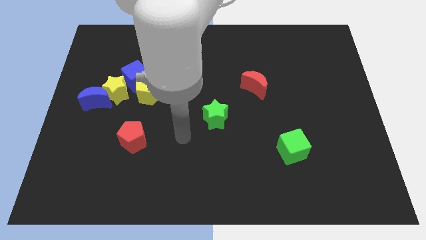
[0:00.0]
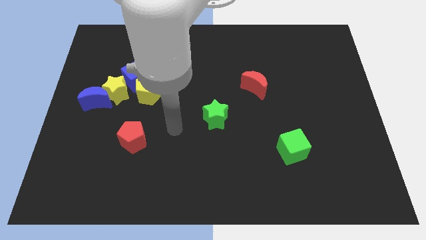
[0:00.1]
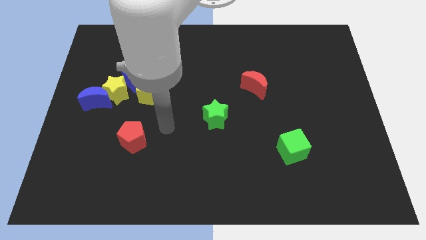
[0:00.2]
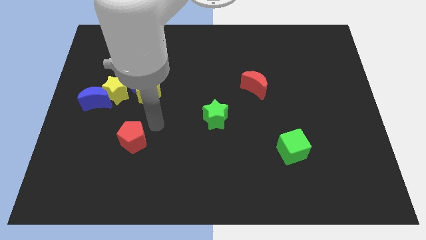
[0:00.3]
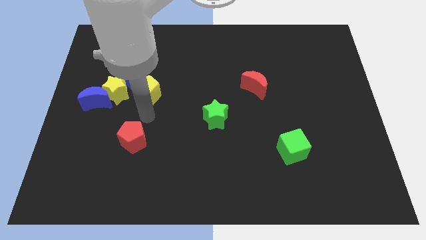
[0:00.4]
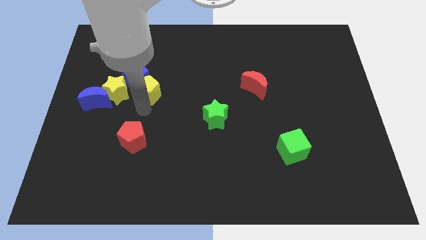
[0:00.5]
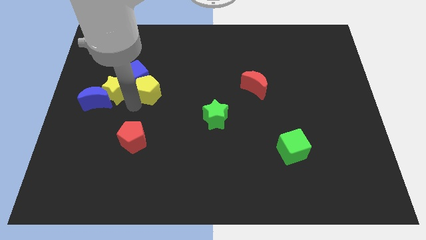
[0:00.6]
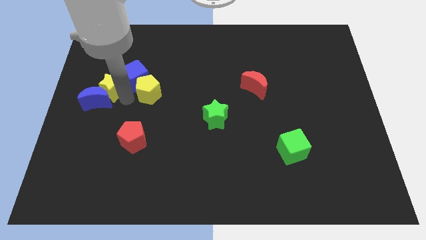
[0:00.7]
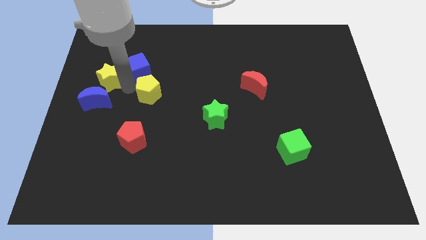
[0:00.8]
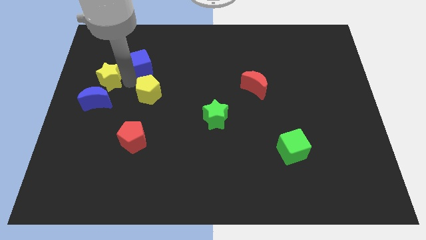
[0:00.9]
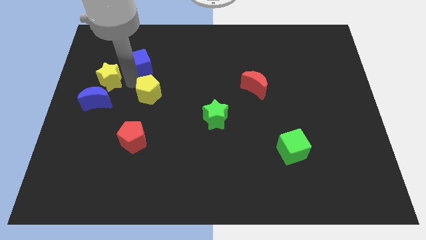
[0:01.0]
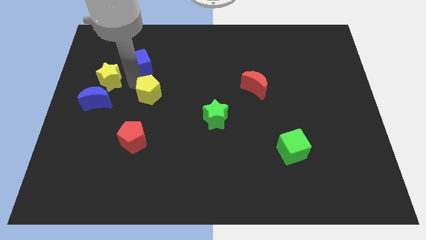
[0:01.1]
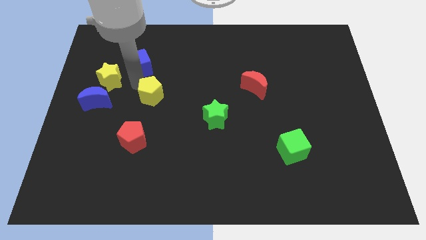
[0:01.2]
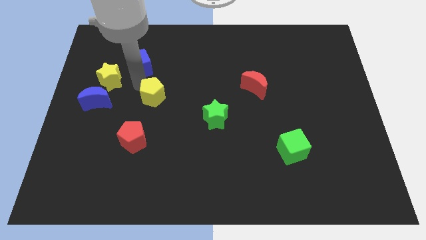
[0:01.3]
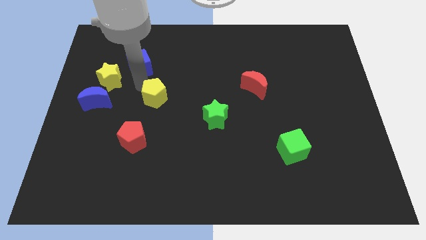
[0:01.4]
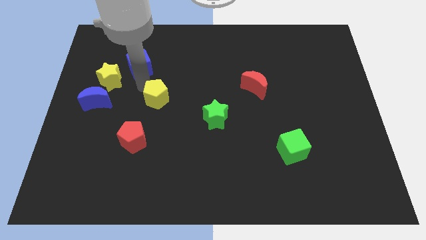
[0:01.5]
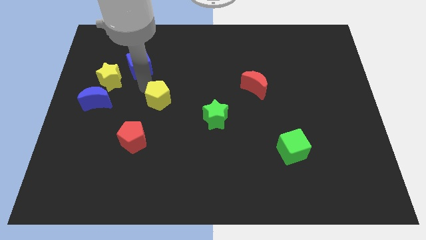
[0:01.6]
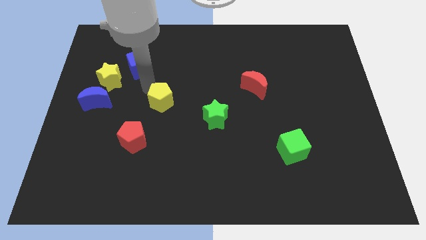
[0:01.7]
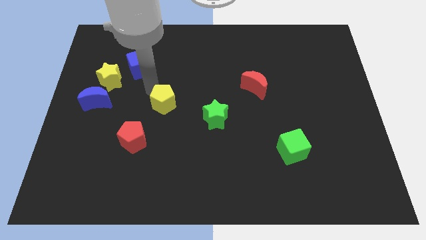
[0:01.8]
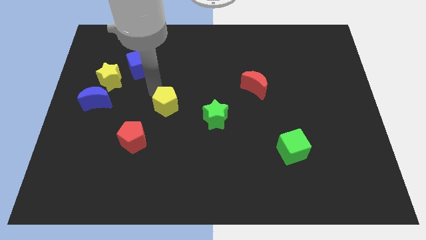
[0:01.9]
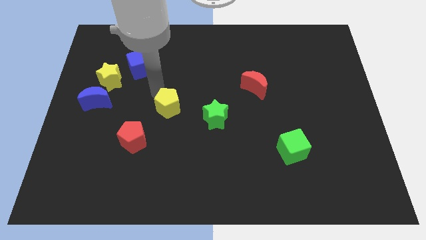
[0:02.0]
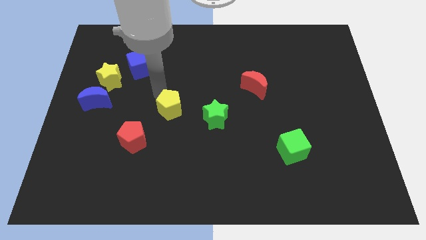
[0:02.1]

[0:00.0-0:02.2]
slightly slide the yellow pentagon downwards and to the right diagonally

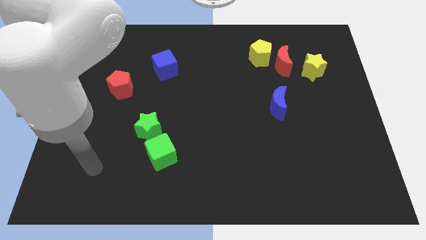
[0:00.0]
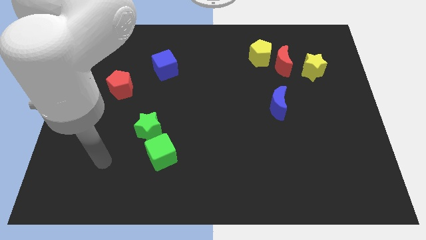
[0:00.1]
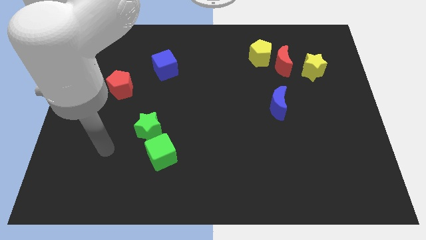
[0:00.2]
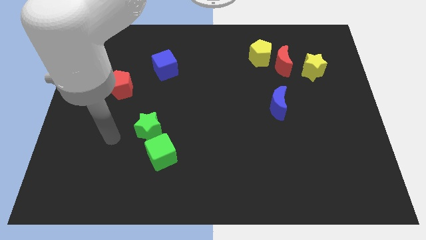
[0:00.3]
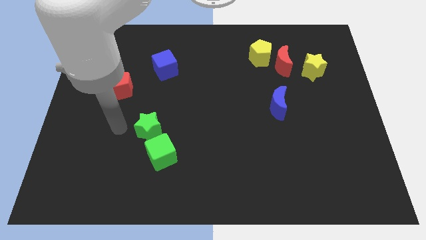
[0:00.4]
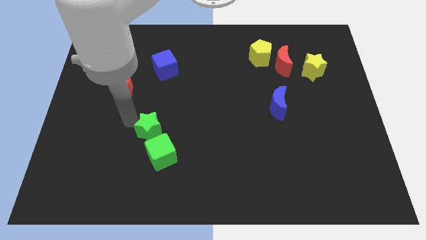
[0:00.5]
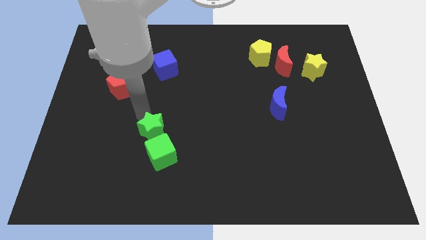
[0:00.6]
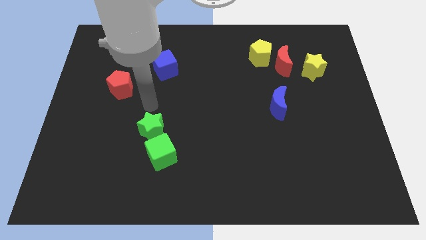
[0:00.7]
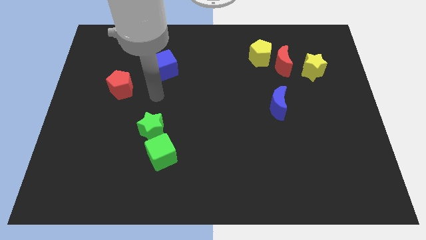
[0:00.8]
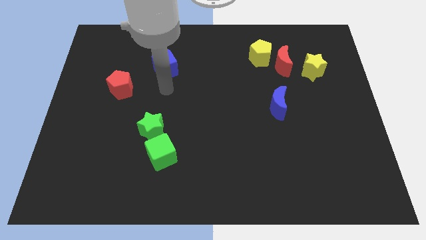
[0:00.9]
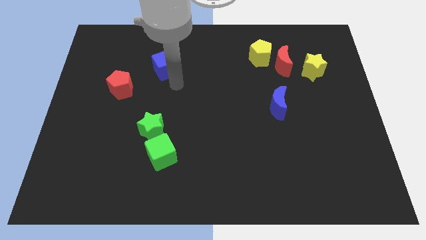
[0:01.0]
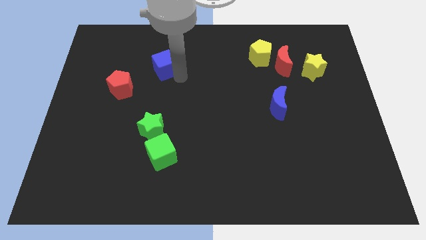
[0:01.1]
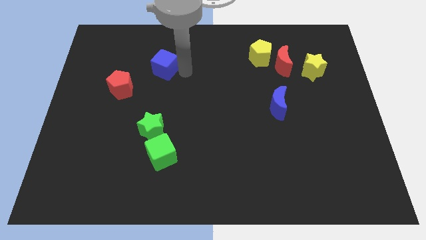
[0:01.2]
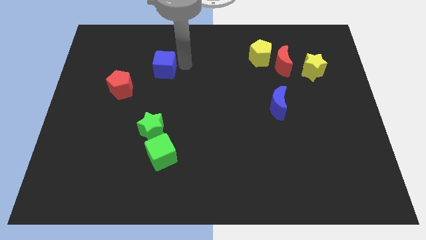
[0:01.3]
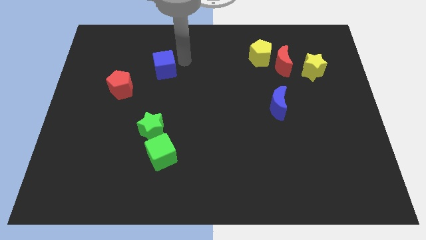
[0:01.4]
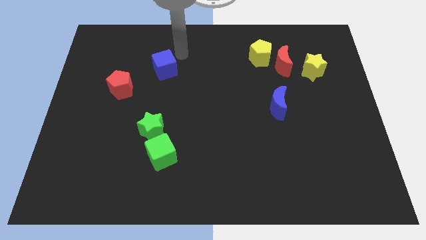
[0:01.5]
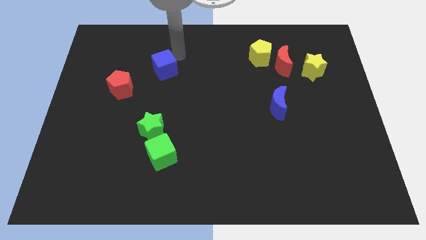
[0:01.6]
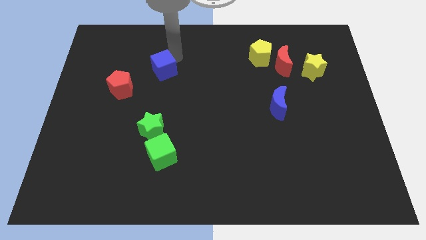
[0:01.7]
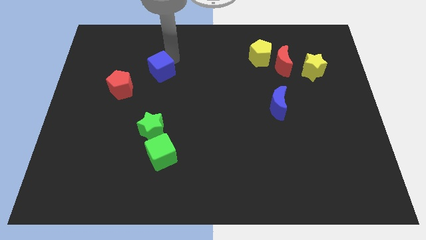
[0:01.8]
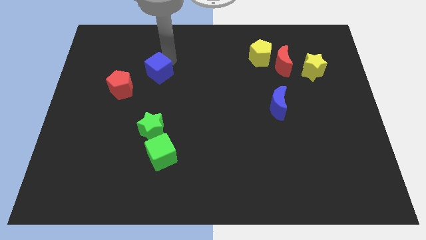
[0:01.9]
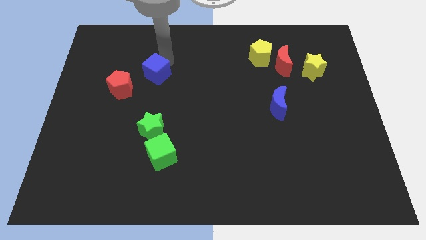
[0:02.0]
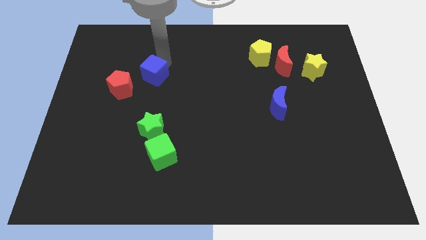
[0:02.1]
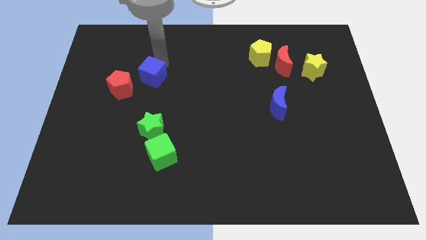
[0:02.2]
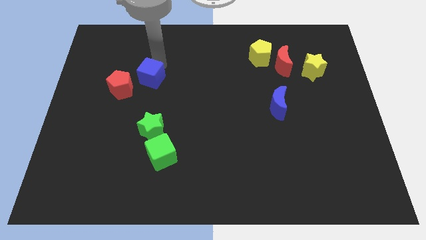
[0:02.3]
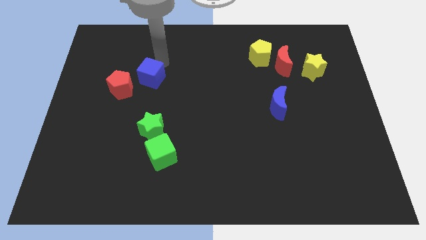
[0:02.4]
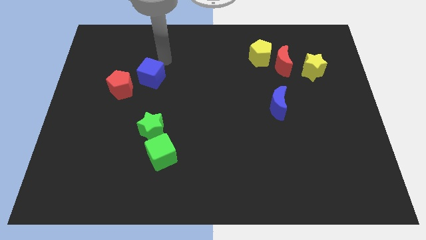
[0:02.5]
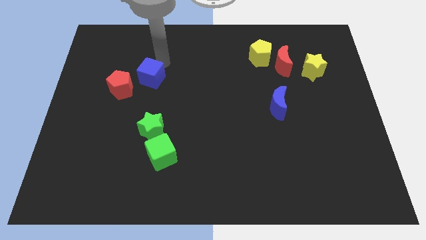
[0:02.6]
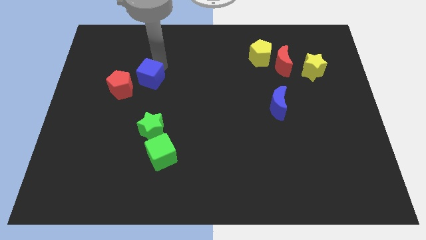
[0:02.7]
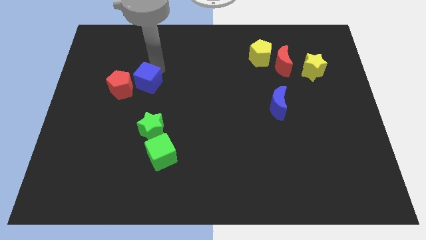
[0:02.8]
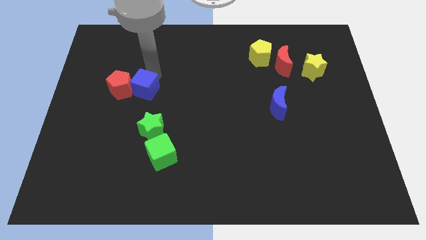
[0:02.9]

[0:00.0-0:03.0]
slide the blue cube a bit down and to the left diagonally

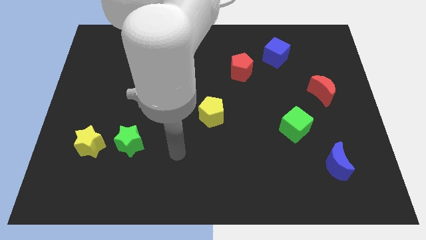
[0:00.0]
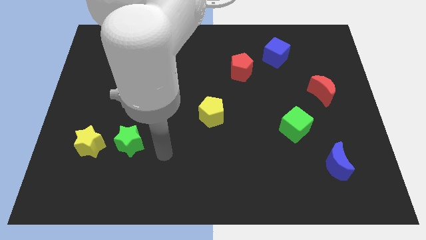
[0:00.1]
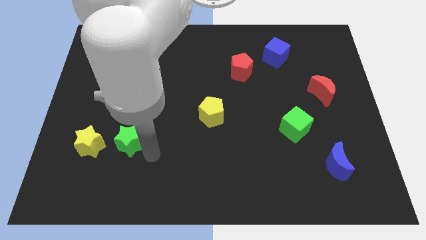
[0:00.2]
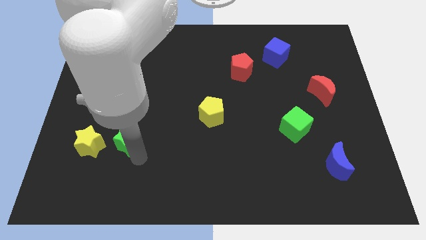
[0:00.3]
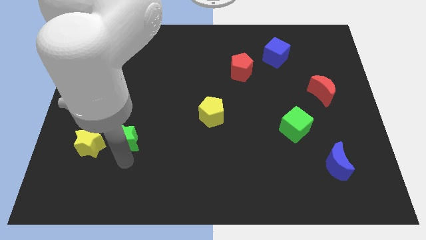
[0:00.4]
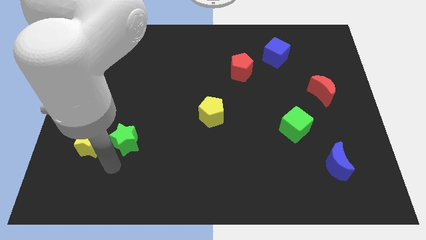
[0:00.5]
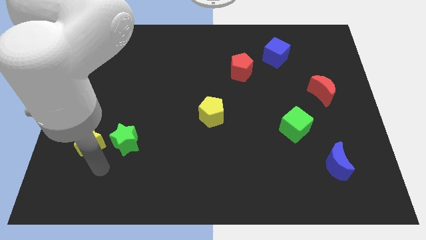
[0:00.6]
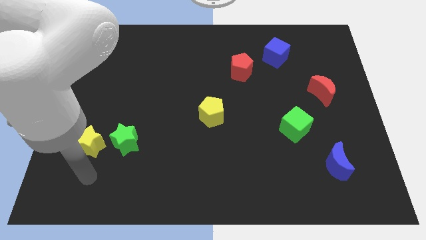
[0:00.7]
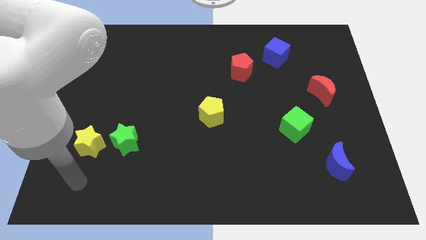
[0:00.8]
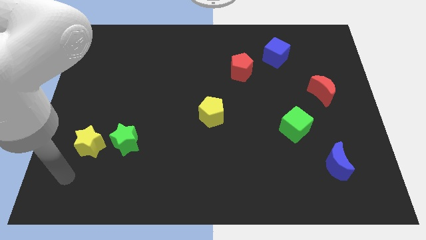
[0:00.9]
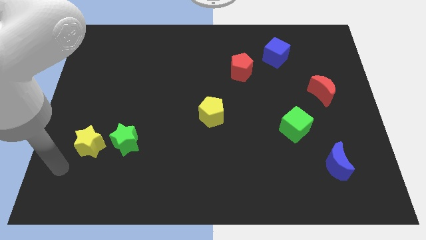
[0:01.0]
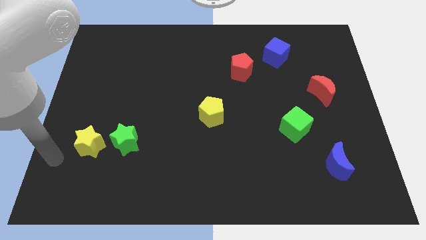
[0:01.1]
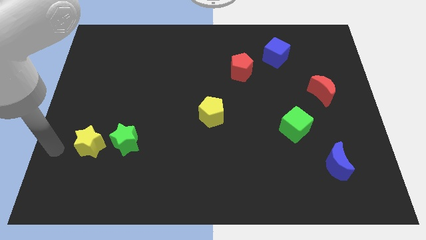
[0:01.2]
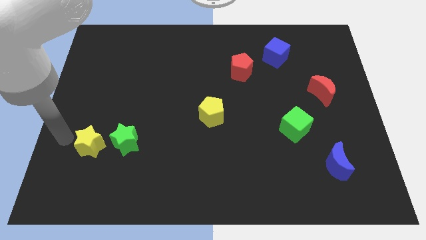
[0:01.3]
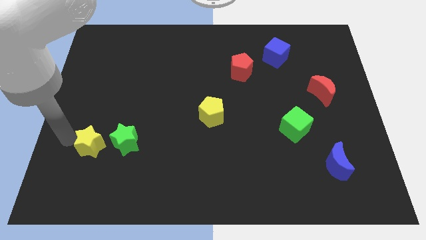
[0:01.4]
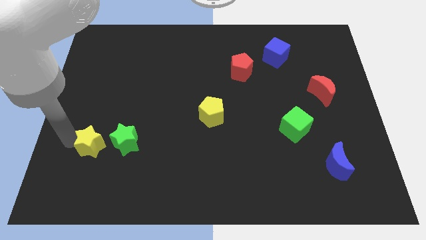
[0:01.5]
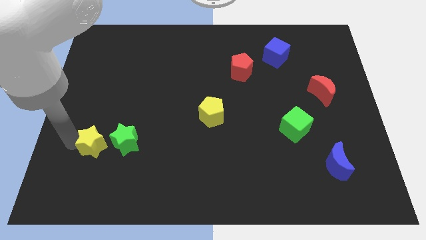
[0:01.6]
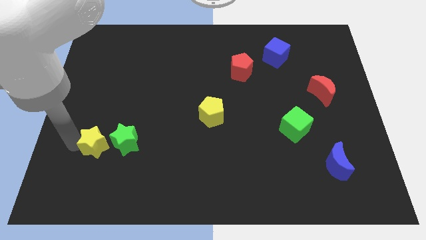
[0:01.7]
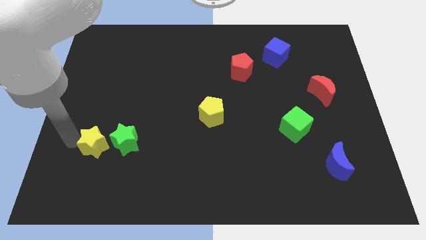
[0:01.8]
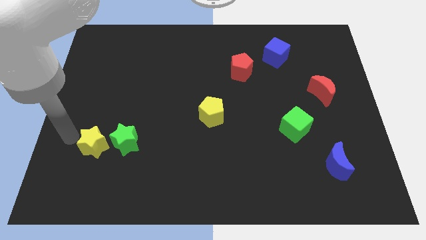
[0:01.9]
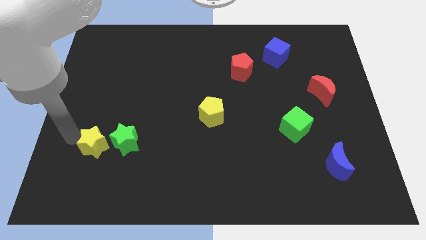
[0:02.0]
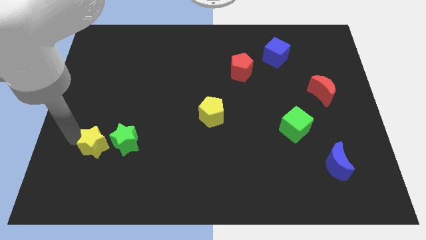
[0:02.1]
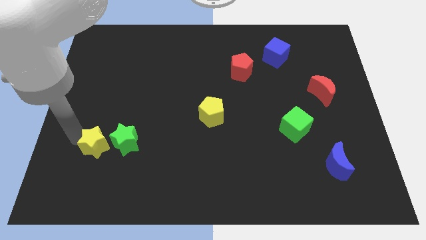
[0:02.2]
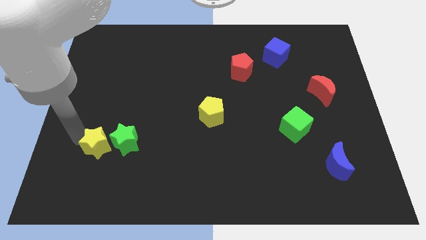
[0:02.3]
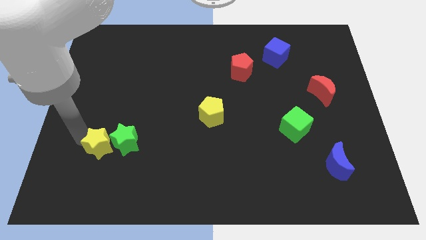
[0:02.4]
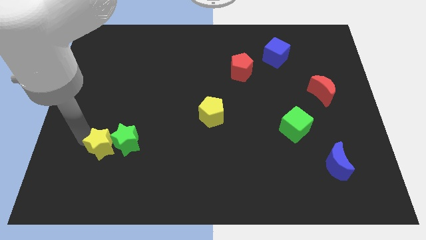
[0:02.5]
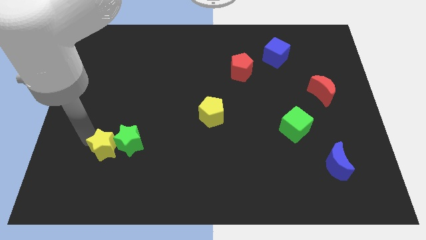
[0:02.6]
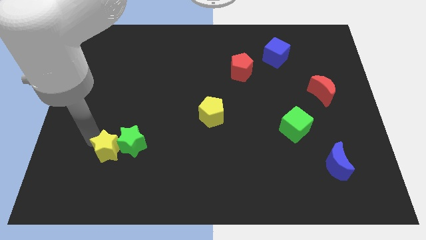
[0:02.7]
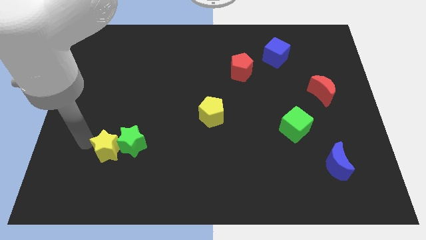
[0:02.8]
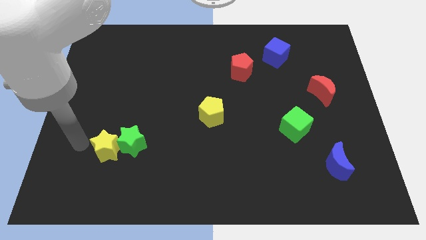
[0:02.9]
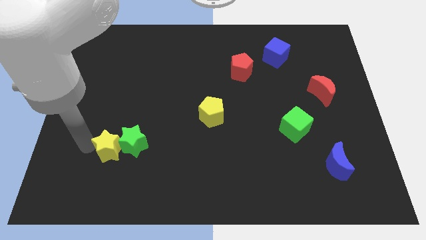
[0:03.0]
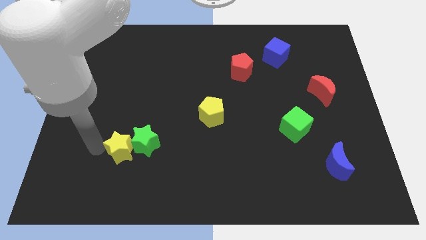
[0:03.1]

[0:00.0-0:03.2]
slightly slide the yellow star right
